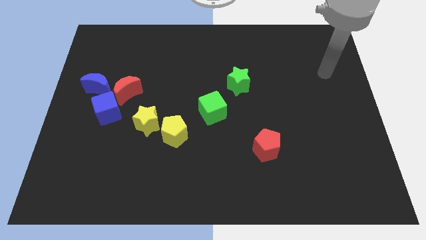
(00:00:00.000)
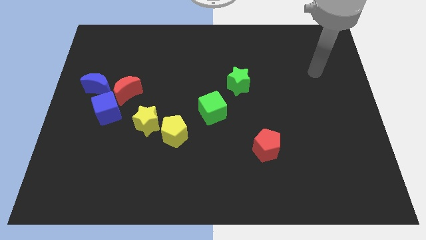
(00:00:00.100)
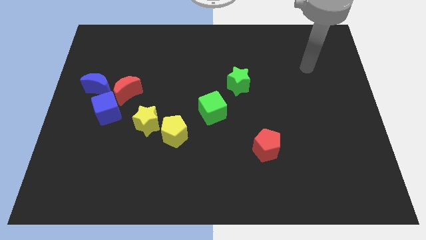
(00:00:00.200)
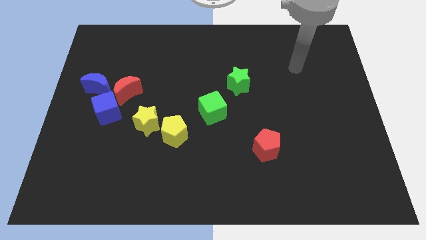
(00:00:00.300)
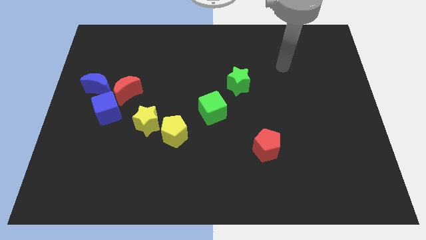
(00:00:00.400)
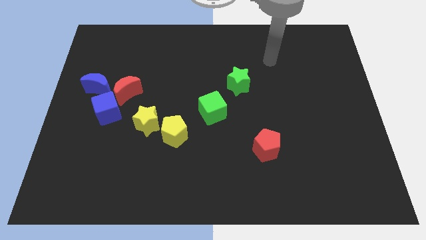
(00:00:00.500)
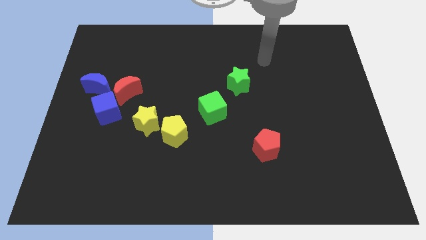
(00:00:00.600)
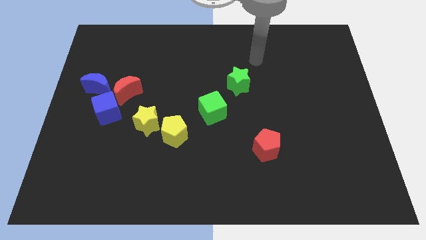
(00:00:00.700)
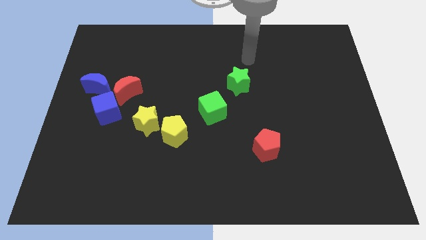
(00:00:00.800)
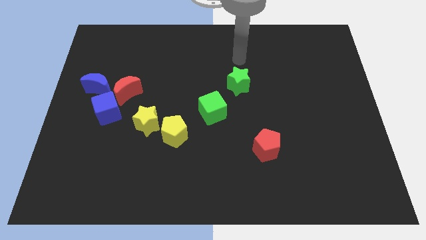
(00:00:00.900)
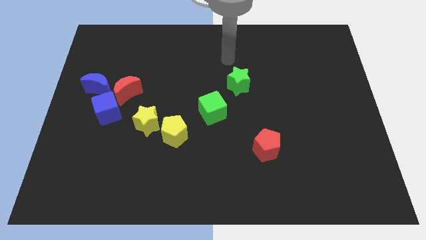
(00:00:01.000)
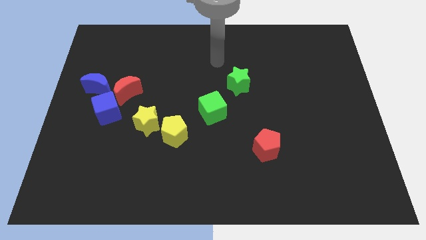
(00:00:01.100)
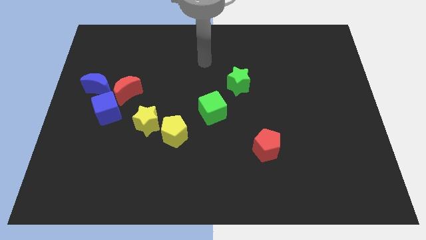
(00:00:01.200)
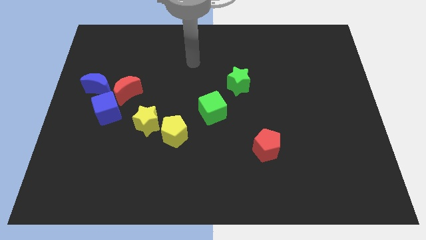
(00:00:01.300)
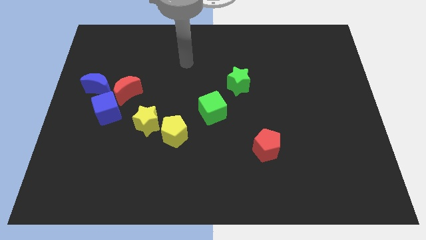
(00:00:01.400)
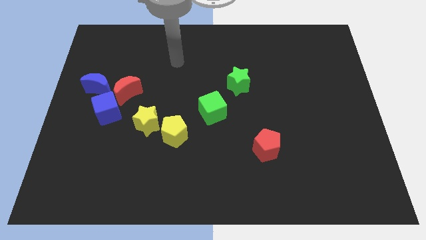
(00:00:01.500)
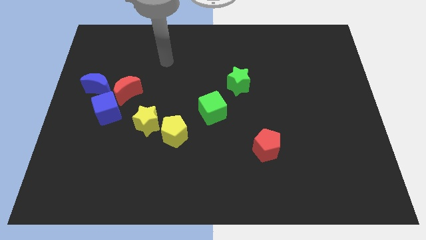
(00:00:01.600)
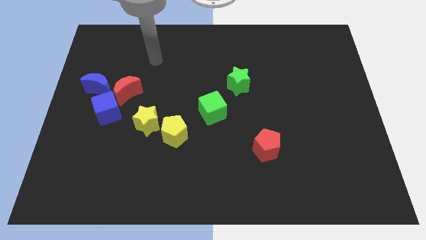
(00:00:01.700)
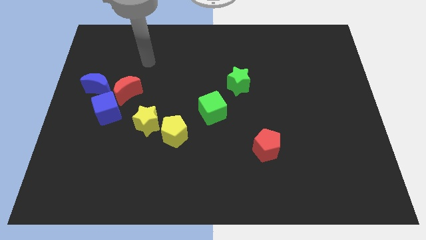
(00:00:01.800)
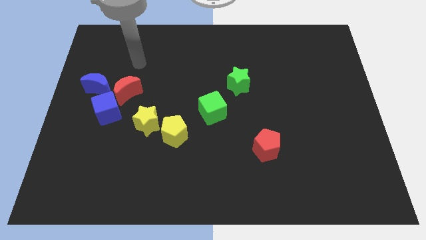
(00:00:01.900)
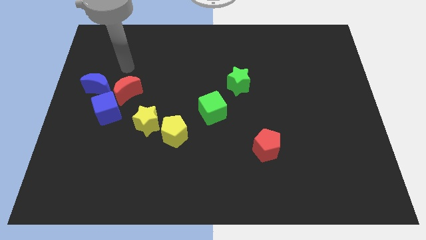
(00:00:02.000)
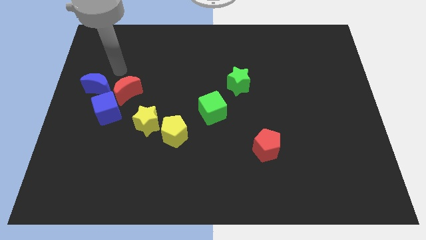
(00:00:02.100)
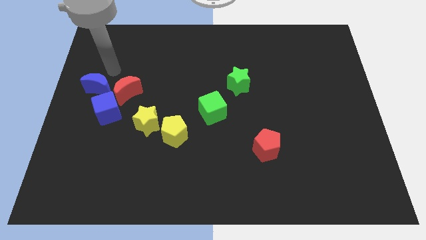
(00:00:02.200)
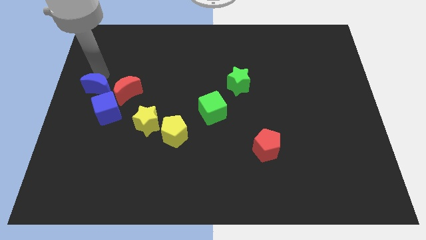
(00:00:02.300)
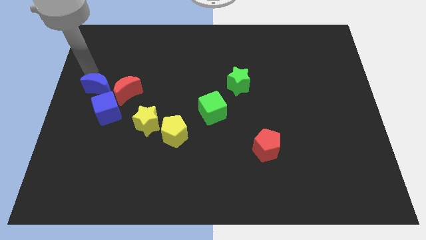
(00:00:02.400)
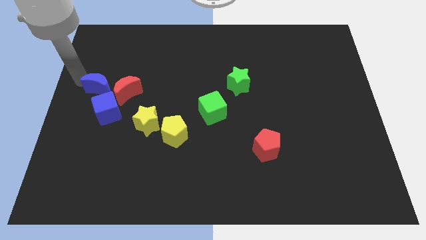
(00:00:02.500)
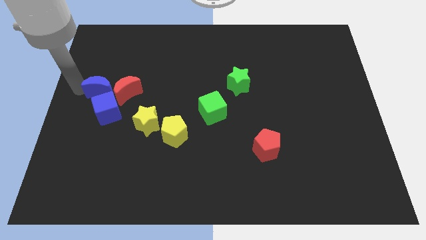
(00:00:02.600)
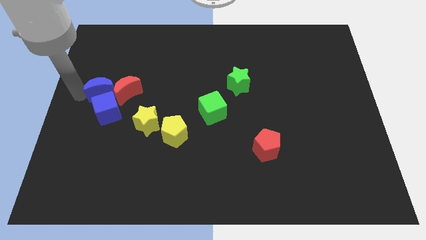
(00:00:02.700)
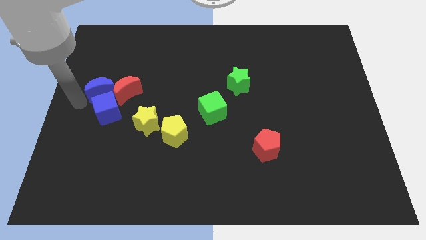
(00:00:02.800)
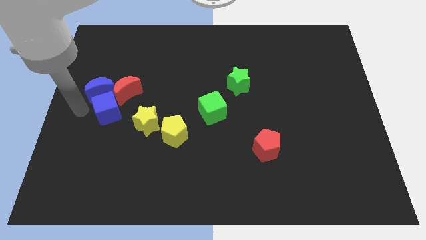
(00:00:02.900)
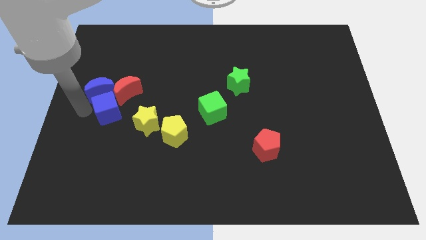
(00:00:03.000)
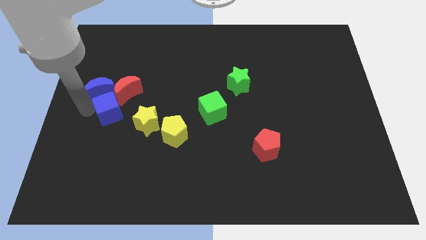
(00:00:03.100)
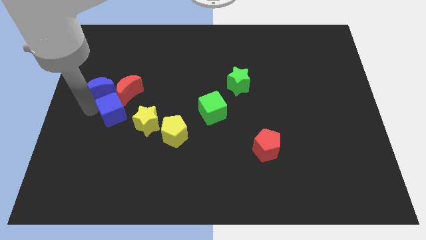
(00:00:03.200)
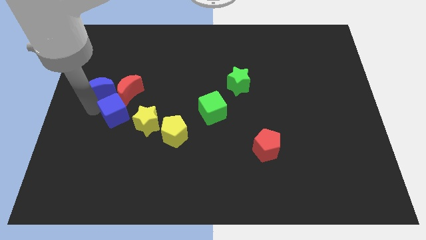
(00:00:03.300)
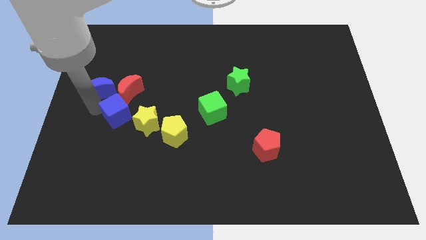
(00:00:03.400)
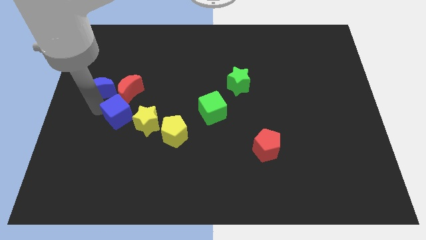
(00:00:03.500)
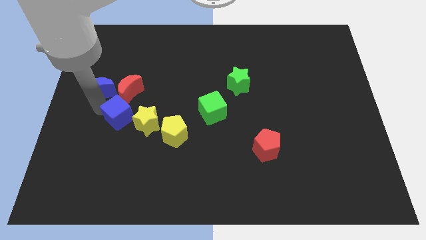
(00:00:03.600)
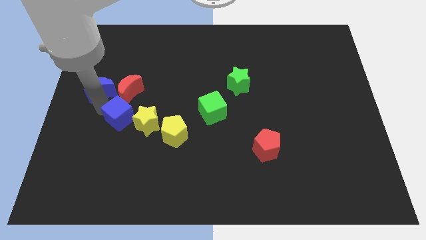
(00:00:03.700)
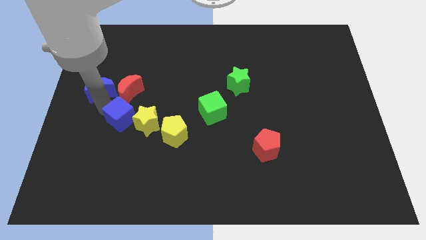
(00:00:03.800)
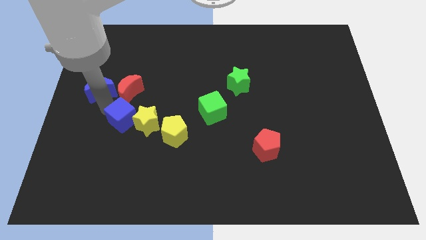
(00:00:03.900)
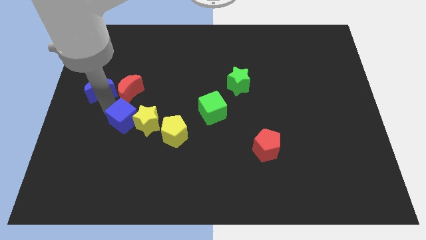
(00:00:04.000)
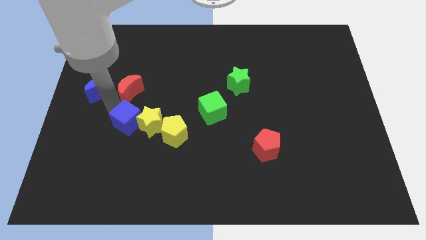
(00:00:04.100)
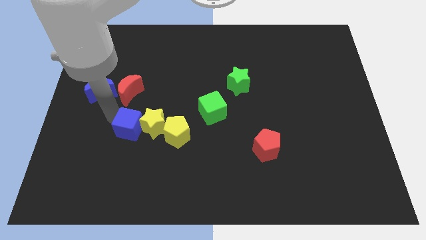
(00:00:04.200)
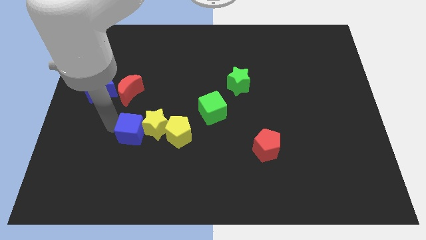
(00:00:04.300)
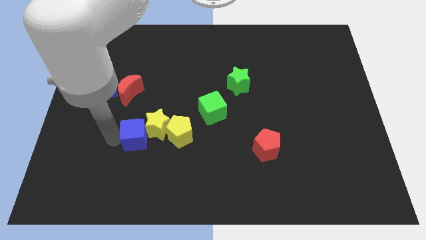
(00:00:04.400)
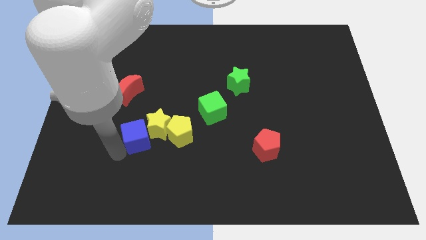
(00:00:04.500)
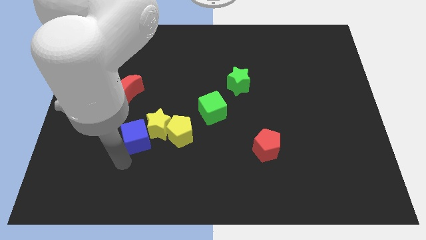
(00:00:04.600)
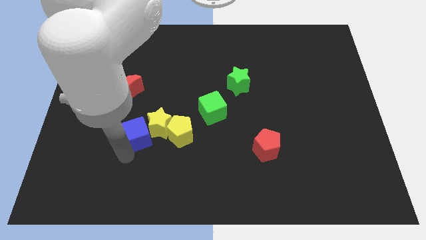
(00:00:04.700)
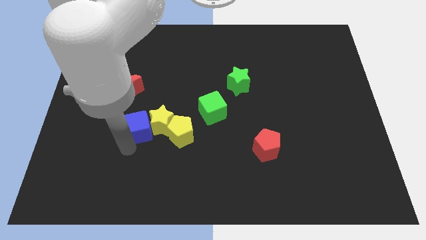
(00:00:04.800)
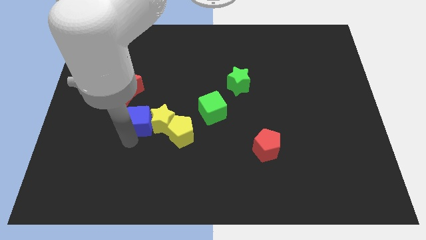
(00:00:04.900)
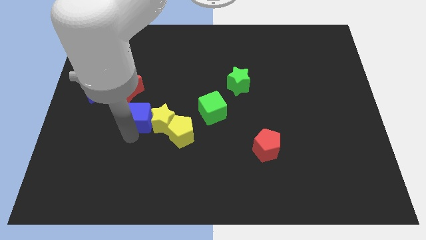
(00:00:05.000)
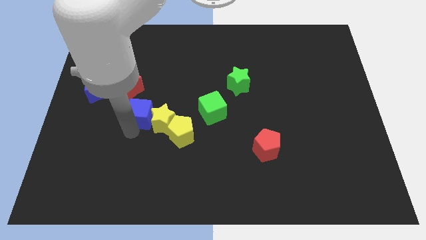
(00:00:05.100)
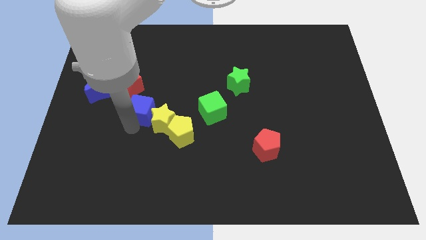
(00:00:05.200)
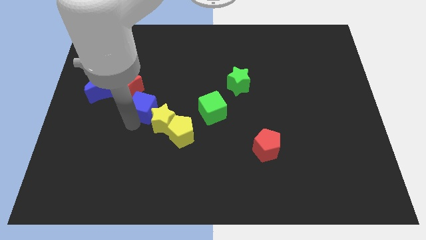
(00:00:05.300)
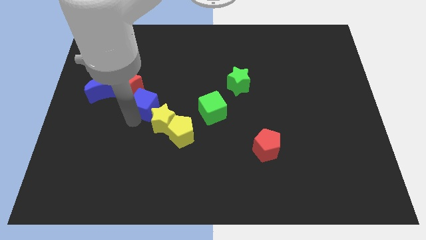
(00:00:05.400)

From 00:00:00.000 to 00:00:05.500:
push the blue cube to the top side of the yellow star

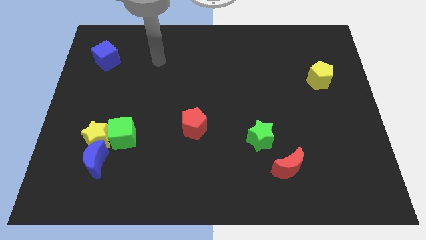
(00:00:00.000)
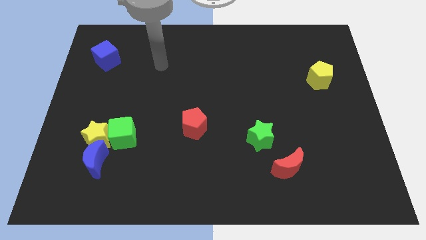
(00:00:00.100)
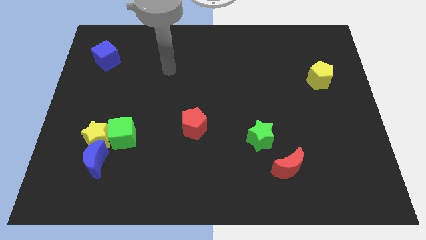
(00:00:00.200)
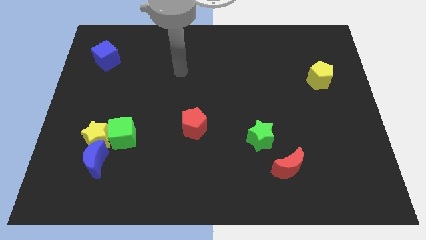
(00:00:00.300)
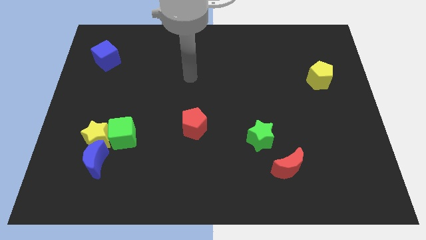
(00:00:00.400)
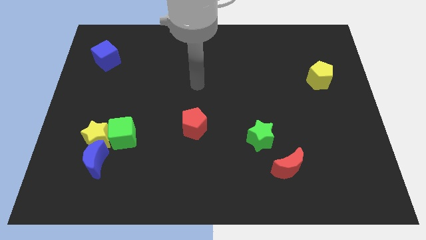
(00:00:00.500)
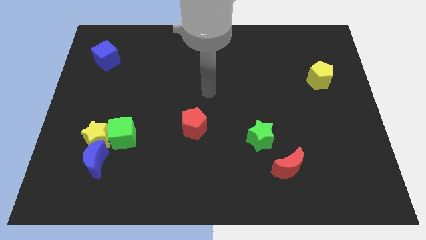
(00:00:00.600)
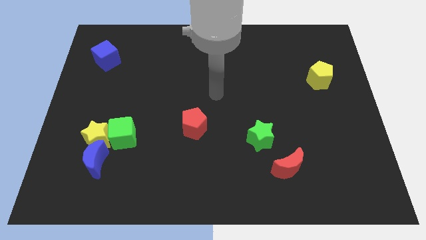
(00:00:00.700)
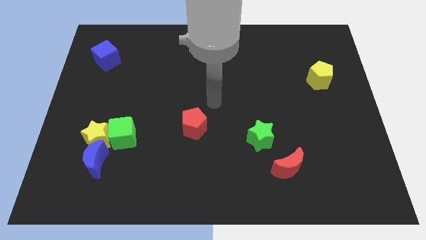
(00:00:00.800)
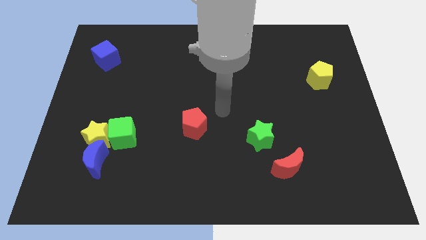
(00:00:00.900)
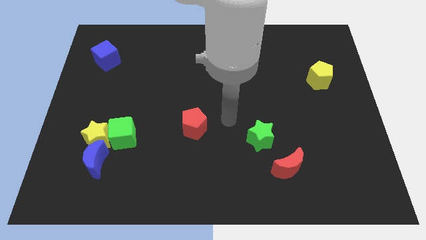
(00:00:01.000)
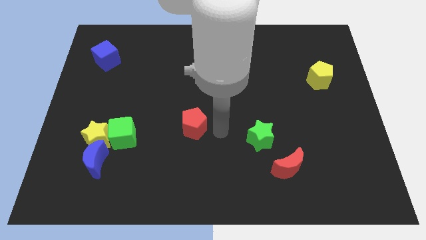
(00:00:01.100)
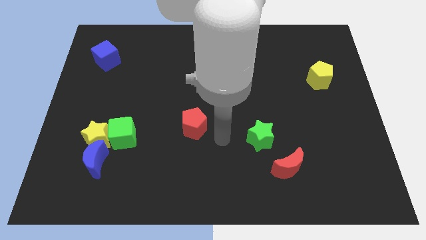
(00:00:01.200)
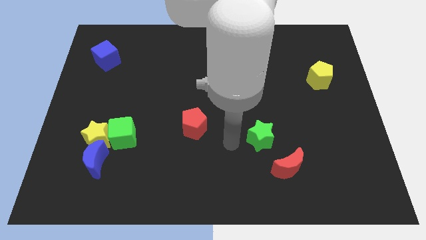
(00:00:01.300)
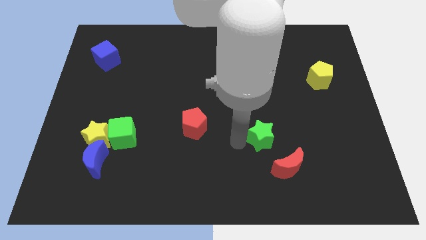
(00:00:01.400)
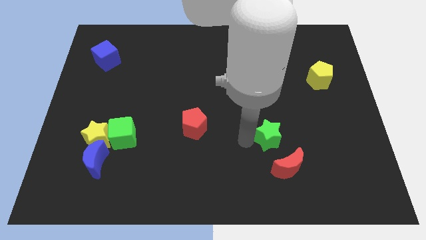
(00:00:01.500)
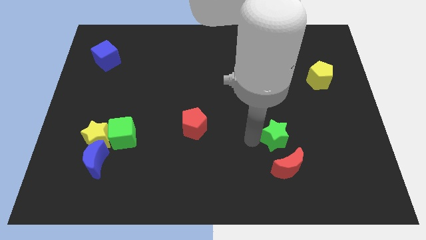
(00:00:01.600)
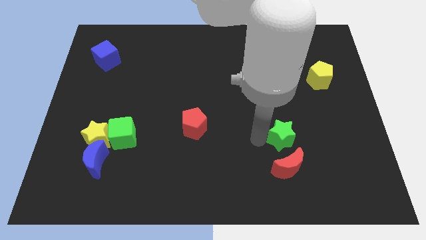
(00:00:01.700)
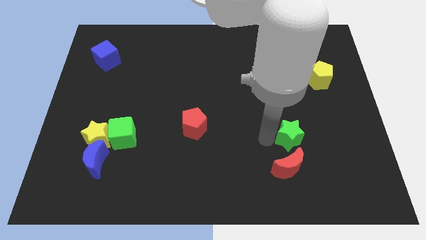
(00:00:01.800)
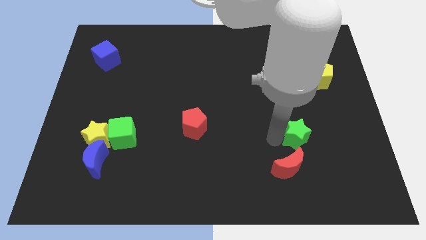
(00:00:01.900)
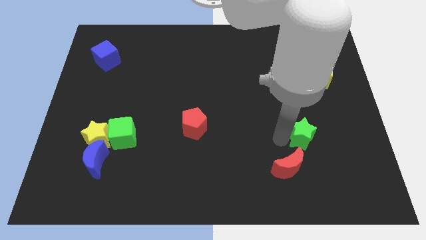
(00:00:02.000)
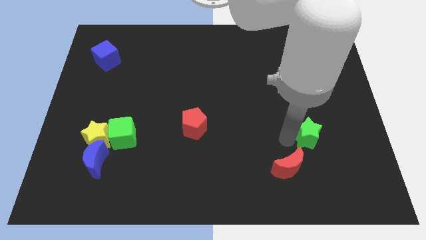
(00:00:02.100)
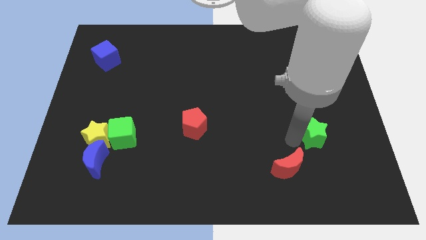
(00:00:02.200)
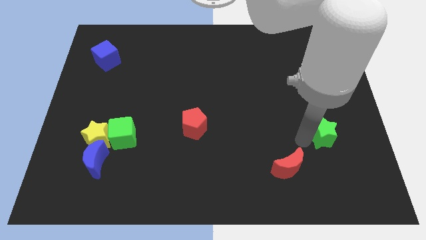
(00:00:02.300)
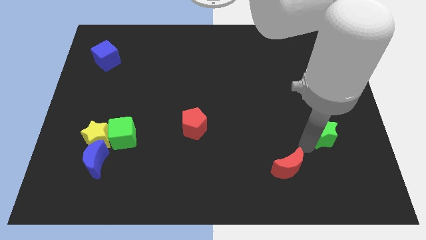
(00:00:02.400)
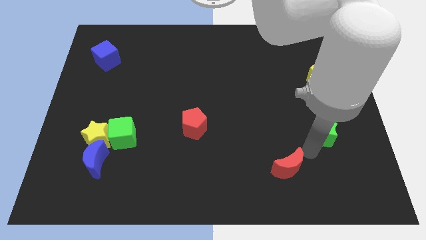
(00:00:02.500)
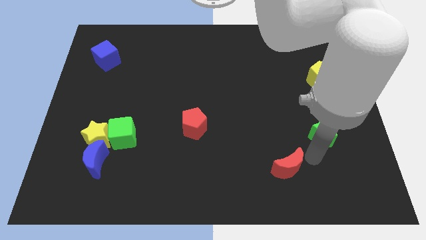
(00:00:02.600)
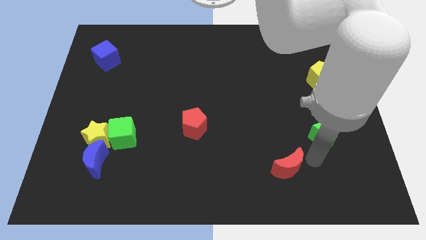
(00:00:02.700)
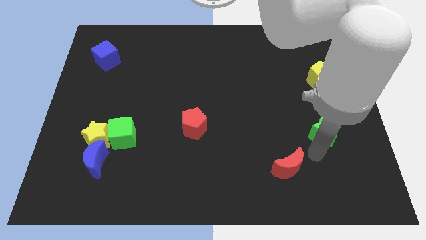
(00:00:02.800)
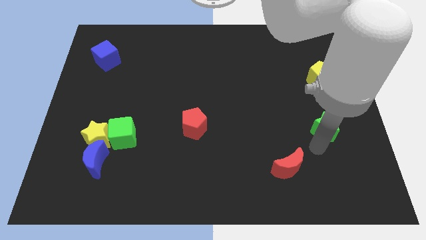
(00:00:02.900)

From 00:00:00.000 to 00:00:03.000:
move the green star to the bottom of the yellow pentagon
